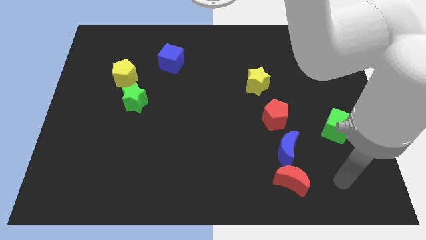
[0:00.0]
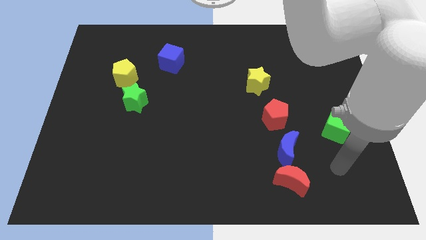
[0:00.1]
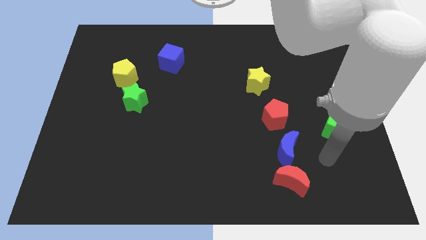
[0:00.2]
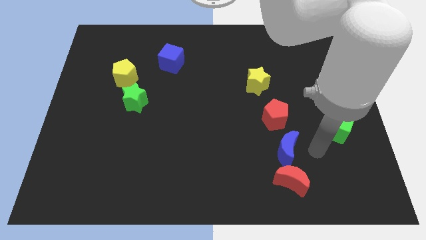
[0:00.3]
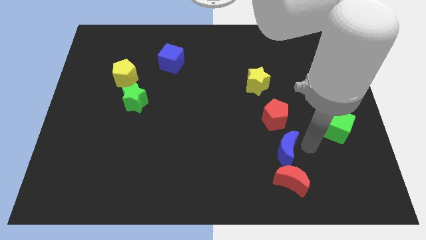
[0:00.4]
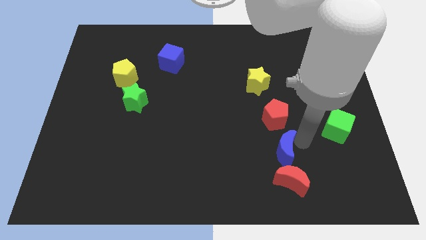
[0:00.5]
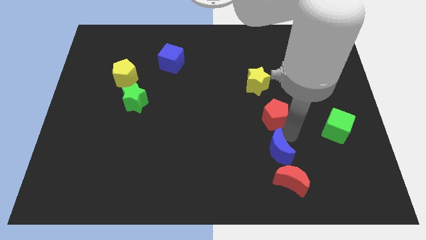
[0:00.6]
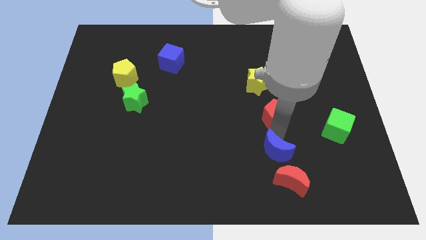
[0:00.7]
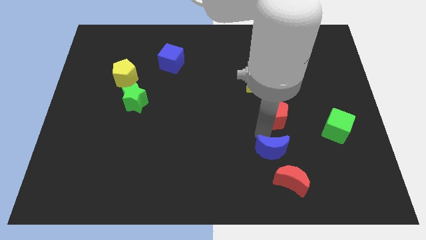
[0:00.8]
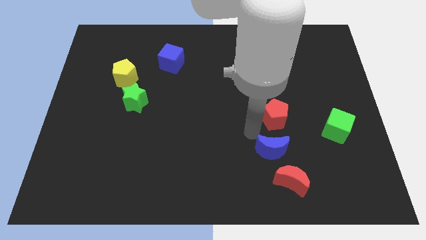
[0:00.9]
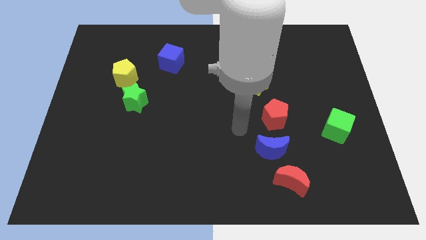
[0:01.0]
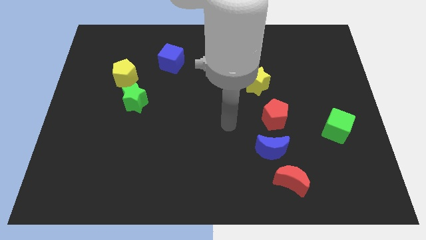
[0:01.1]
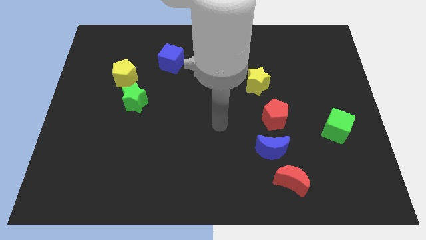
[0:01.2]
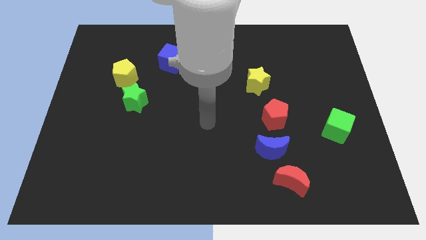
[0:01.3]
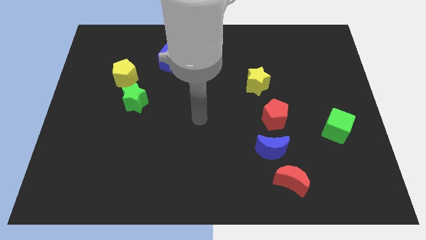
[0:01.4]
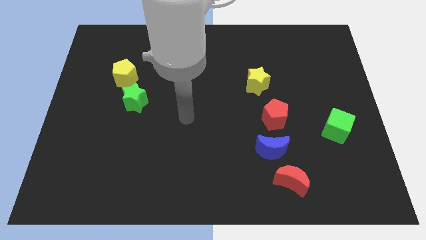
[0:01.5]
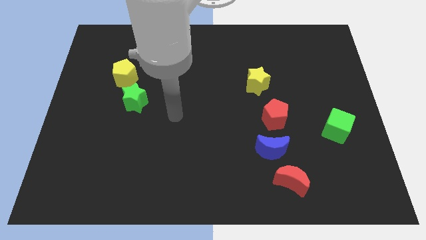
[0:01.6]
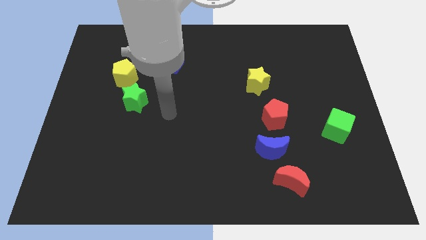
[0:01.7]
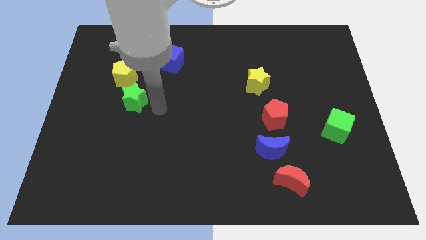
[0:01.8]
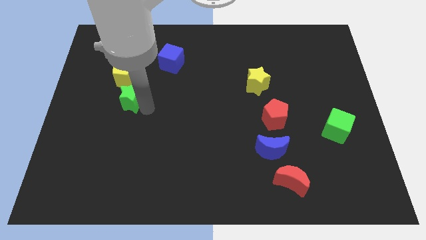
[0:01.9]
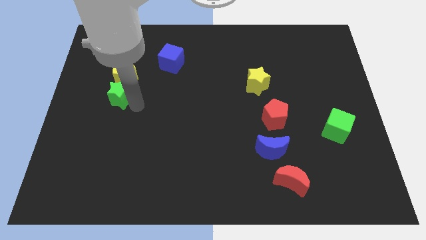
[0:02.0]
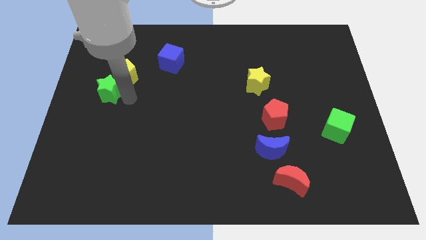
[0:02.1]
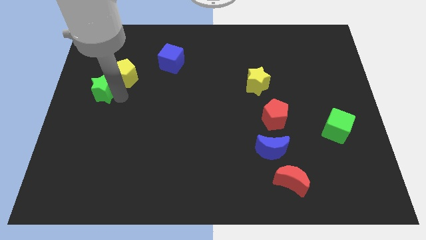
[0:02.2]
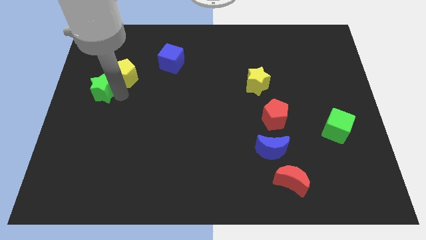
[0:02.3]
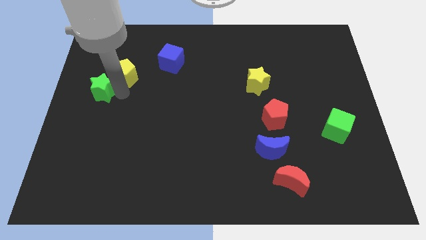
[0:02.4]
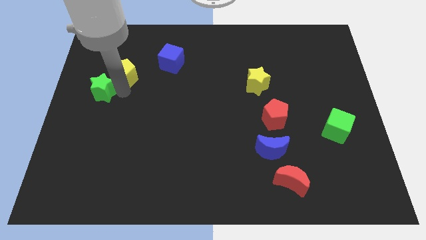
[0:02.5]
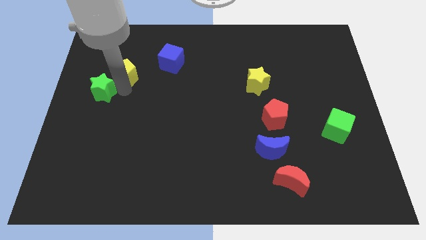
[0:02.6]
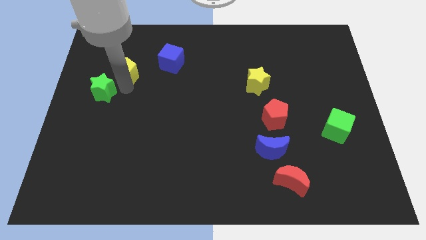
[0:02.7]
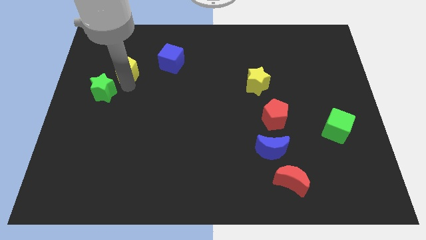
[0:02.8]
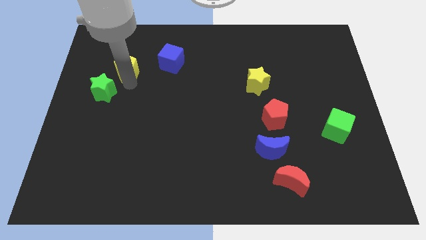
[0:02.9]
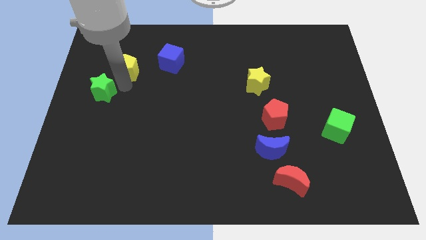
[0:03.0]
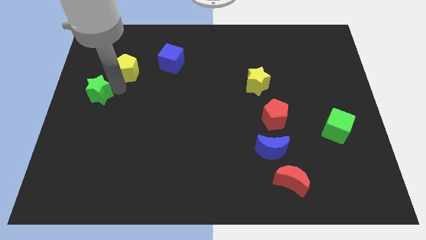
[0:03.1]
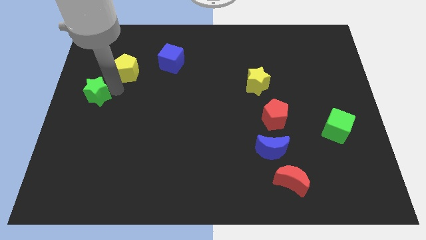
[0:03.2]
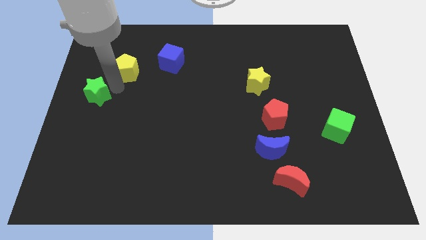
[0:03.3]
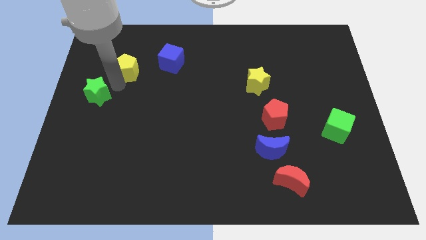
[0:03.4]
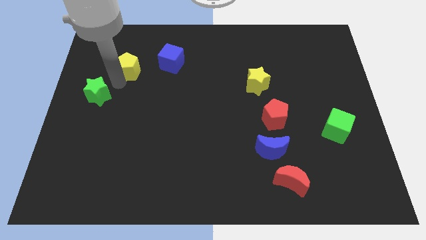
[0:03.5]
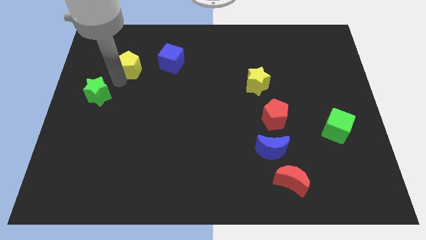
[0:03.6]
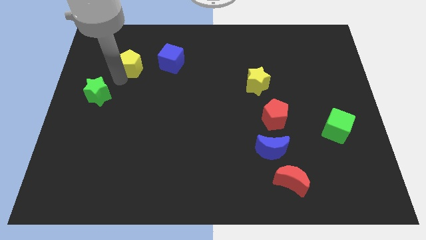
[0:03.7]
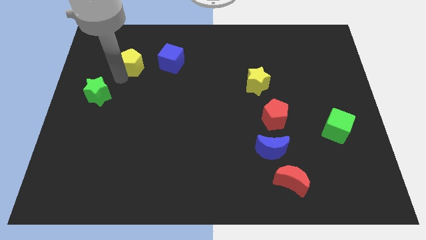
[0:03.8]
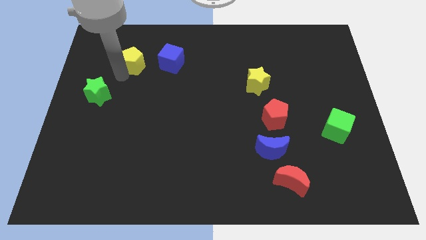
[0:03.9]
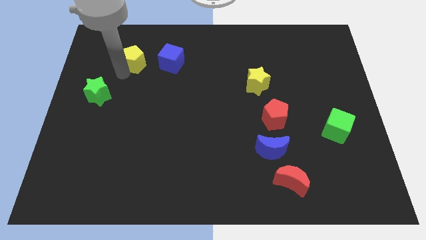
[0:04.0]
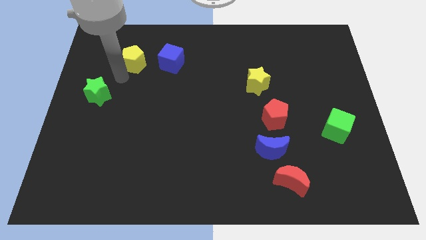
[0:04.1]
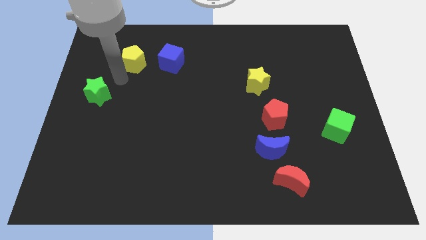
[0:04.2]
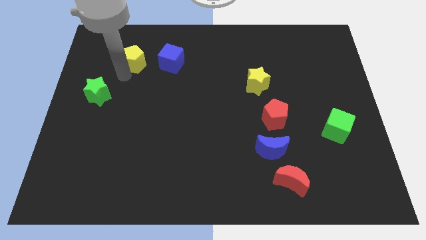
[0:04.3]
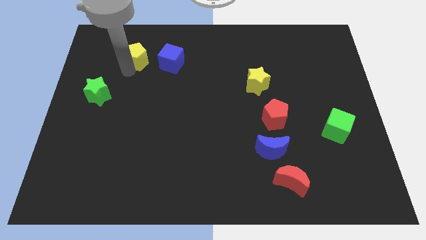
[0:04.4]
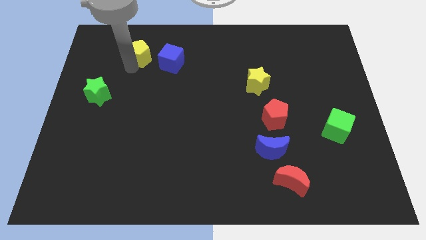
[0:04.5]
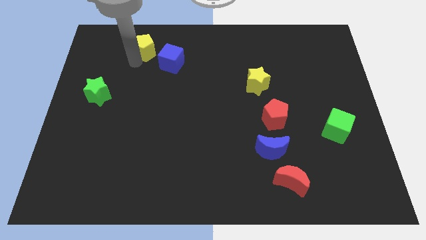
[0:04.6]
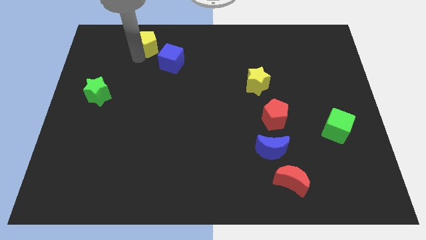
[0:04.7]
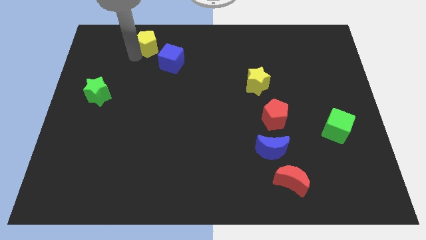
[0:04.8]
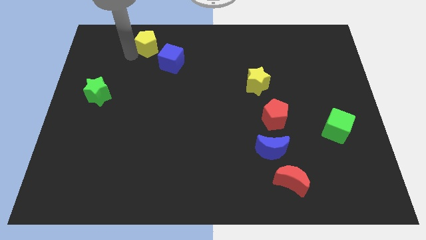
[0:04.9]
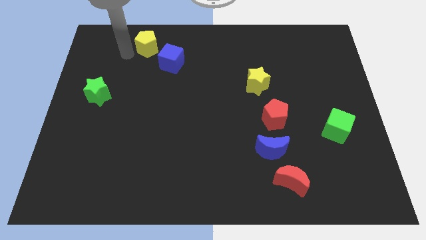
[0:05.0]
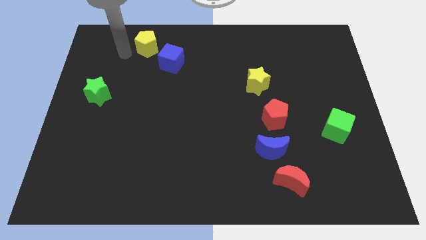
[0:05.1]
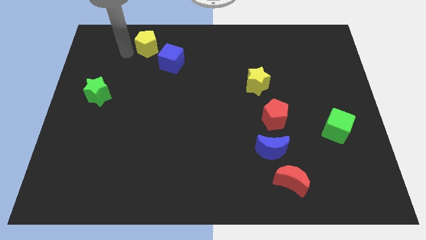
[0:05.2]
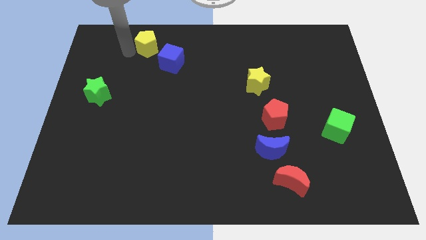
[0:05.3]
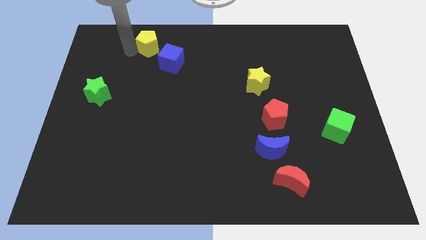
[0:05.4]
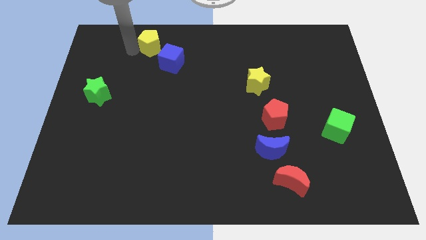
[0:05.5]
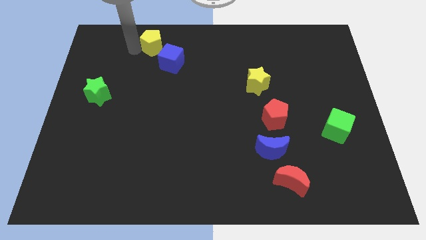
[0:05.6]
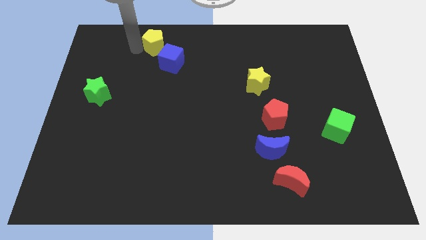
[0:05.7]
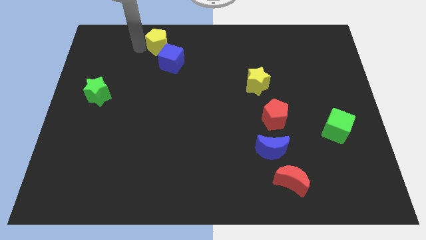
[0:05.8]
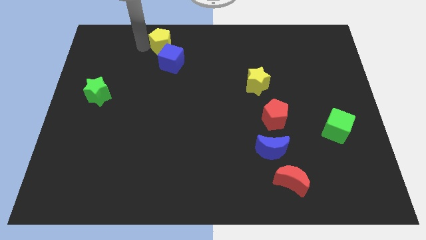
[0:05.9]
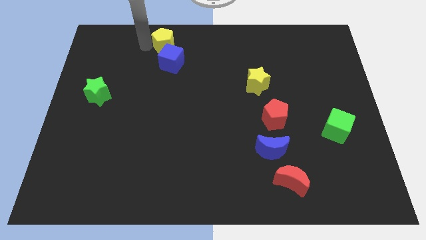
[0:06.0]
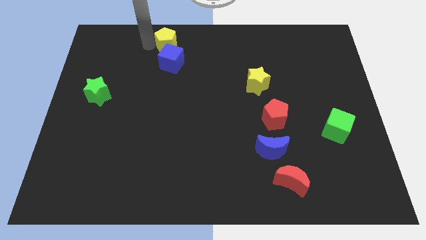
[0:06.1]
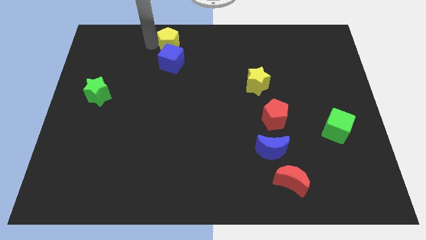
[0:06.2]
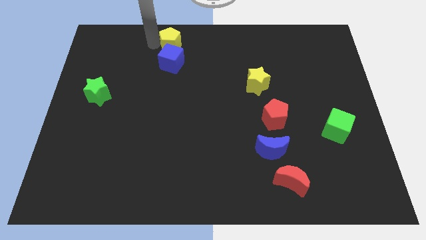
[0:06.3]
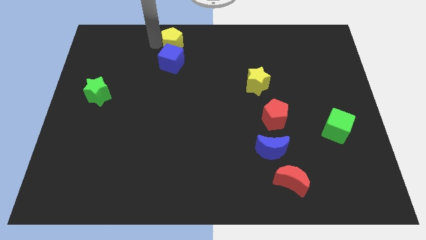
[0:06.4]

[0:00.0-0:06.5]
move the yellow pentagon to the top side

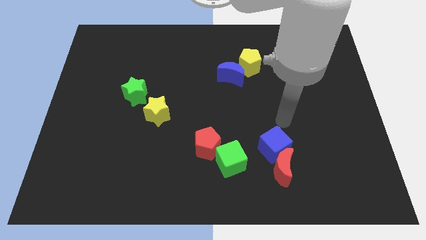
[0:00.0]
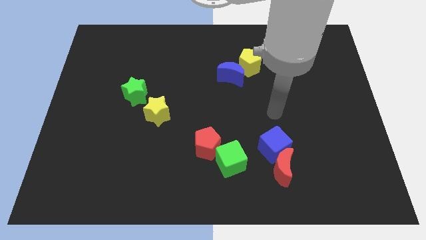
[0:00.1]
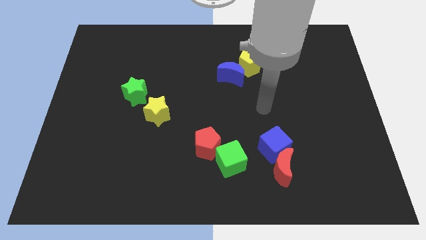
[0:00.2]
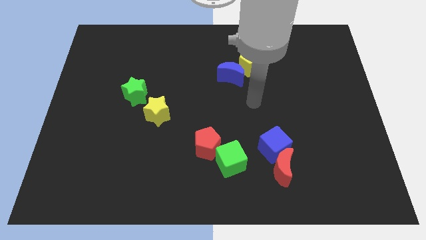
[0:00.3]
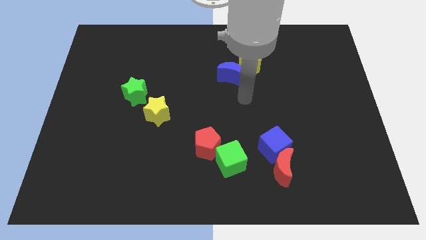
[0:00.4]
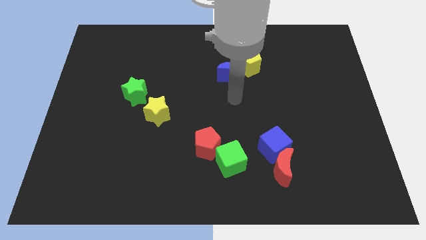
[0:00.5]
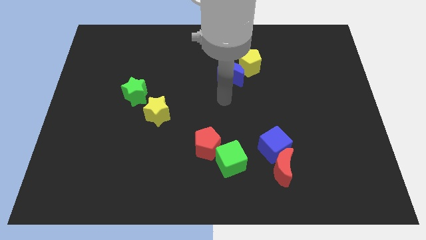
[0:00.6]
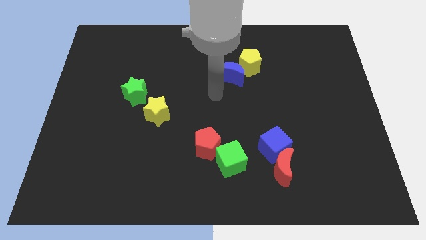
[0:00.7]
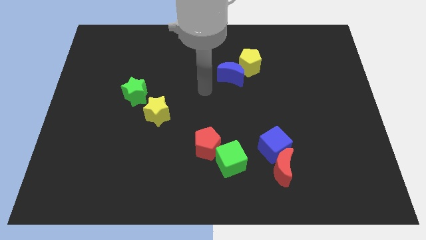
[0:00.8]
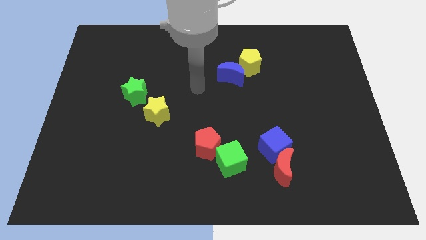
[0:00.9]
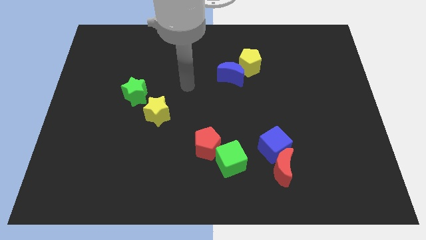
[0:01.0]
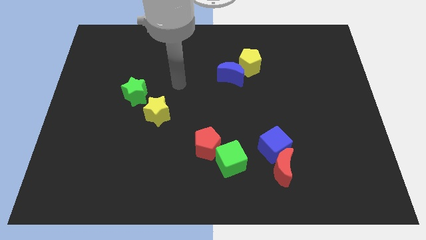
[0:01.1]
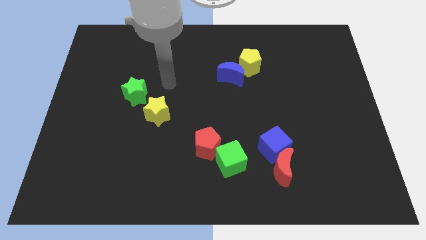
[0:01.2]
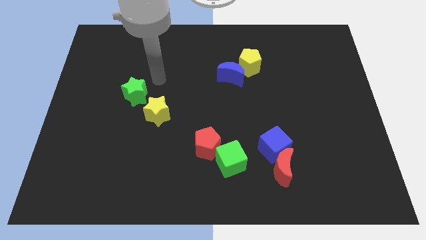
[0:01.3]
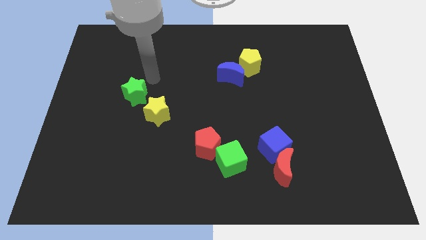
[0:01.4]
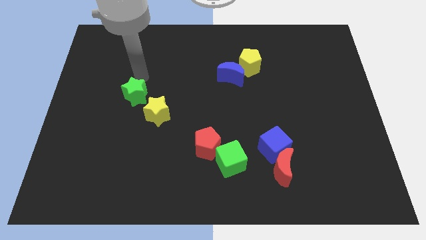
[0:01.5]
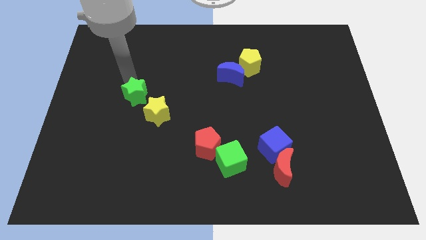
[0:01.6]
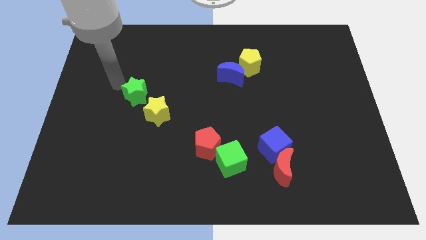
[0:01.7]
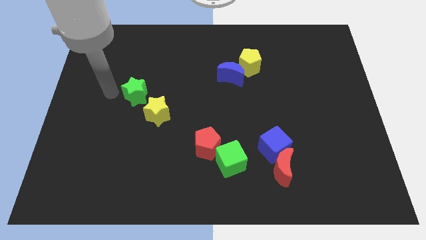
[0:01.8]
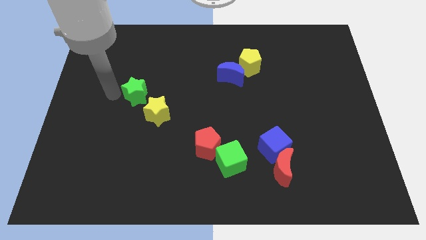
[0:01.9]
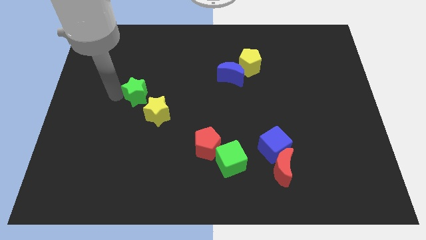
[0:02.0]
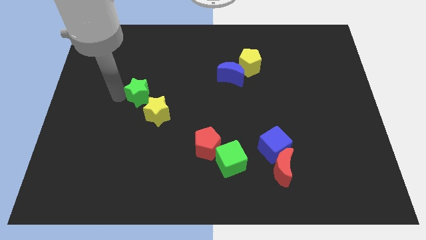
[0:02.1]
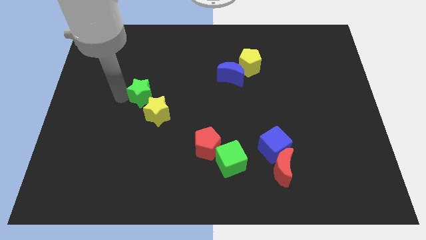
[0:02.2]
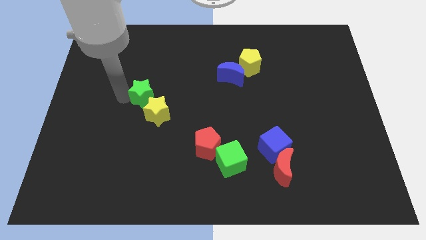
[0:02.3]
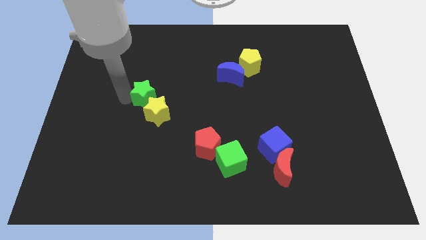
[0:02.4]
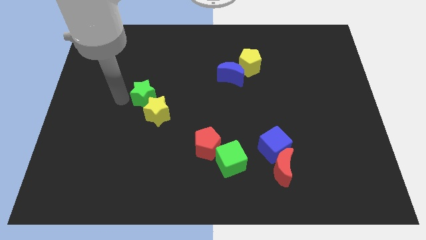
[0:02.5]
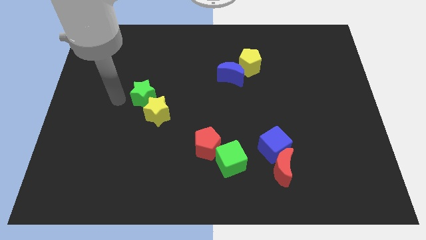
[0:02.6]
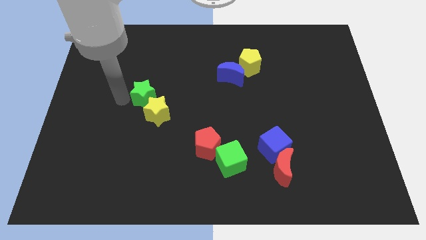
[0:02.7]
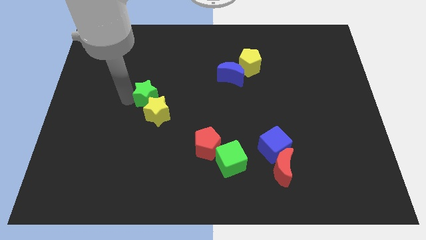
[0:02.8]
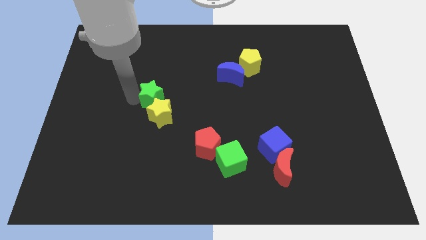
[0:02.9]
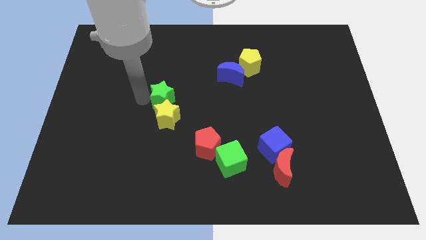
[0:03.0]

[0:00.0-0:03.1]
put the green star to the center of the board
